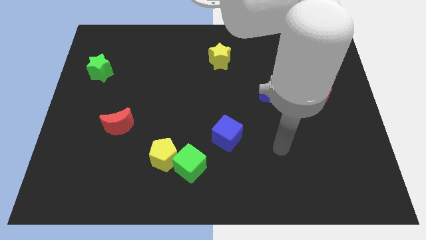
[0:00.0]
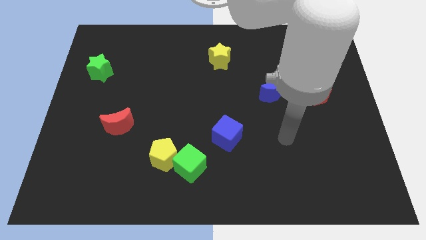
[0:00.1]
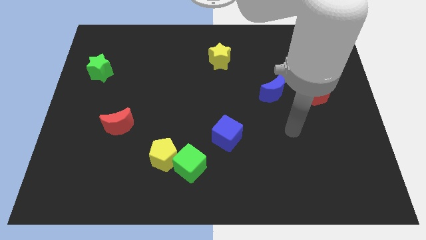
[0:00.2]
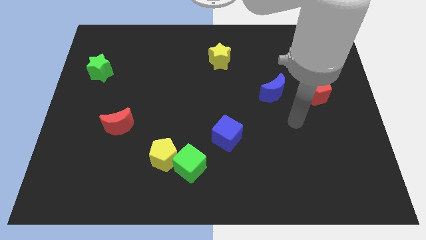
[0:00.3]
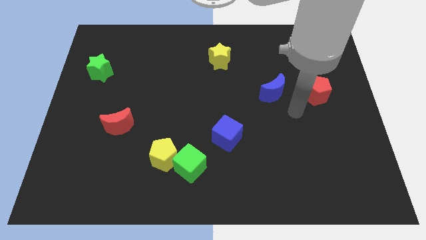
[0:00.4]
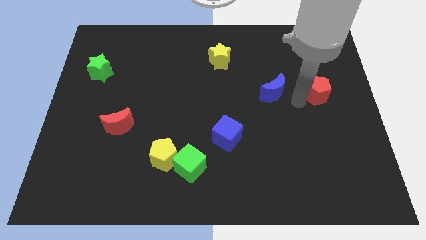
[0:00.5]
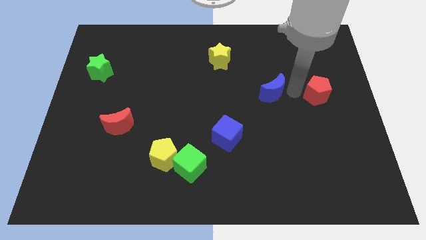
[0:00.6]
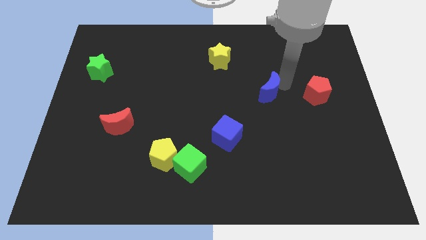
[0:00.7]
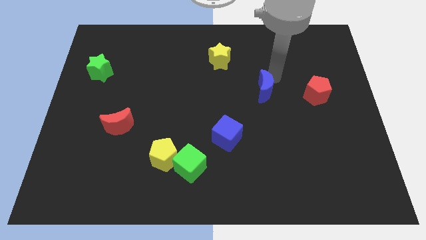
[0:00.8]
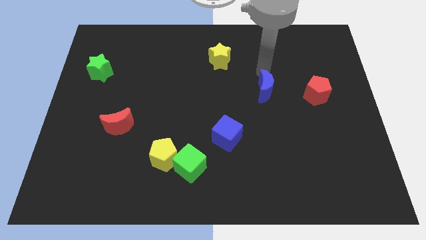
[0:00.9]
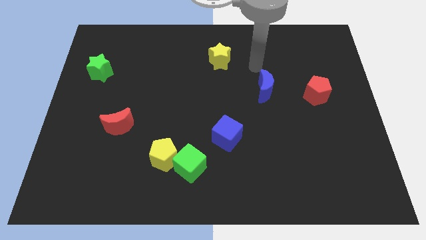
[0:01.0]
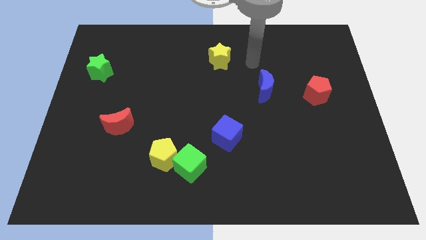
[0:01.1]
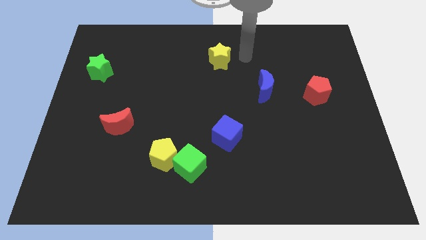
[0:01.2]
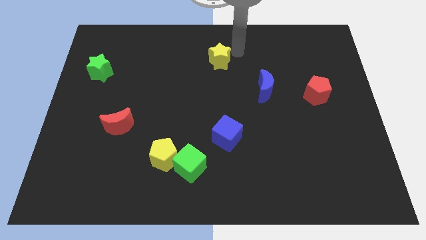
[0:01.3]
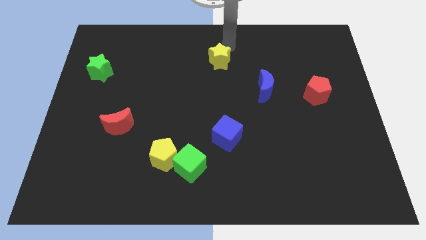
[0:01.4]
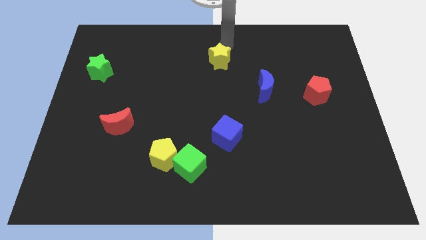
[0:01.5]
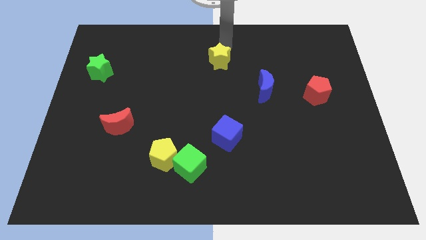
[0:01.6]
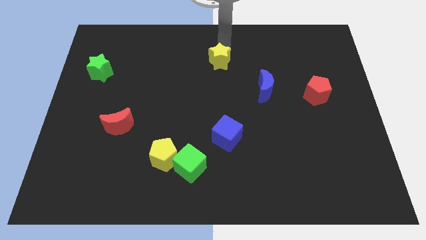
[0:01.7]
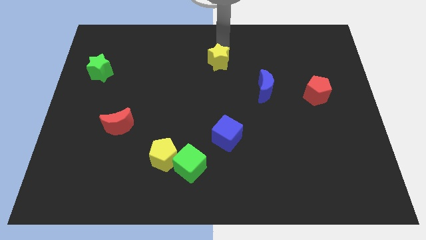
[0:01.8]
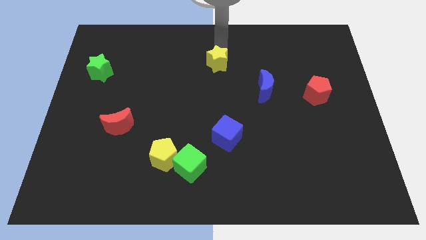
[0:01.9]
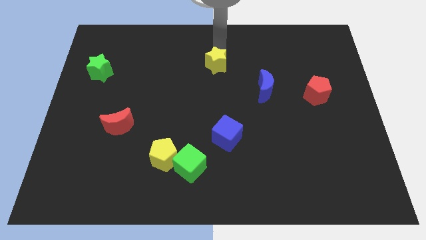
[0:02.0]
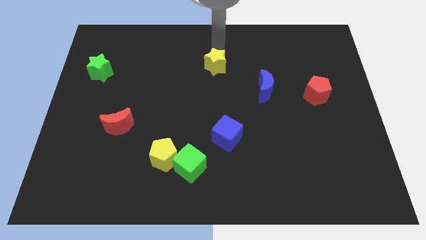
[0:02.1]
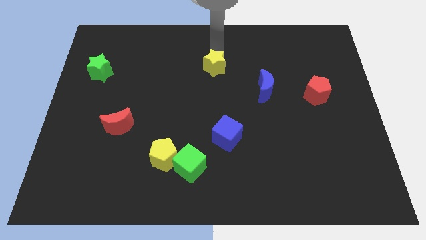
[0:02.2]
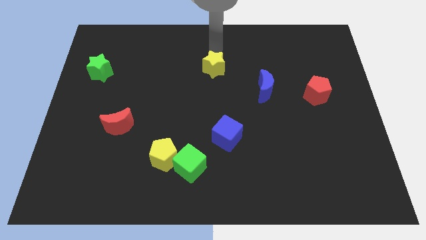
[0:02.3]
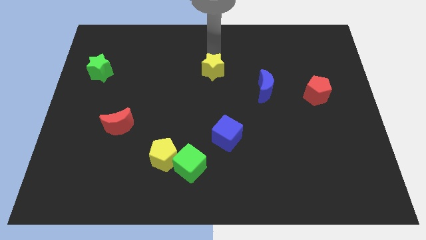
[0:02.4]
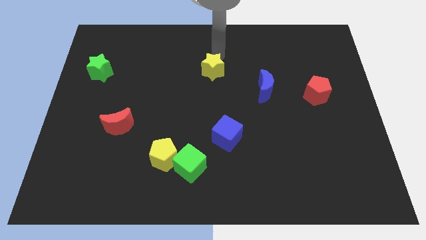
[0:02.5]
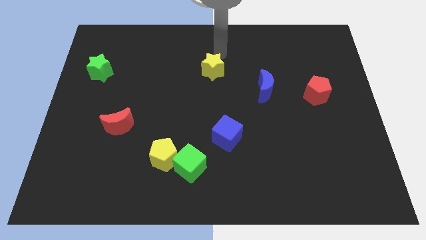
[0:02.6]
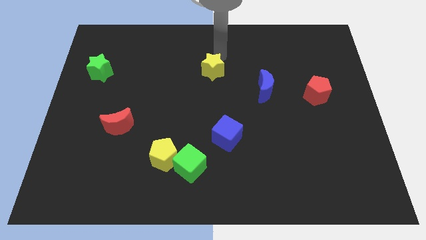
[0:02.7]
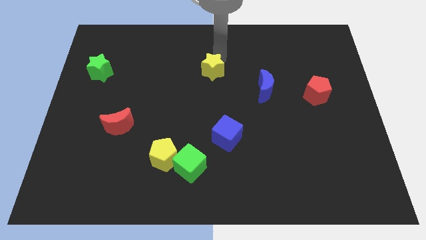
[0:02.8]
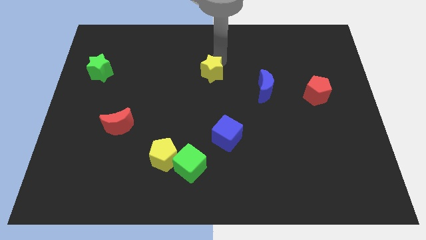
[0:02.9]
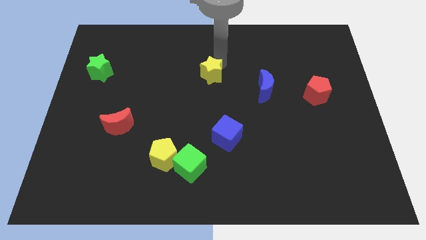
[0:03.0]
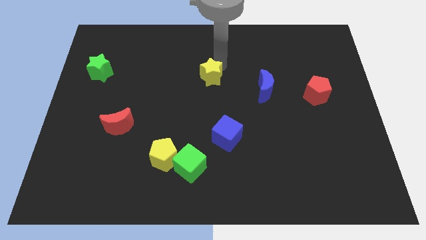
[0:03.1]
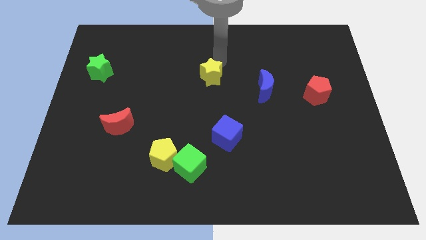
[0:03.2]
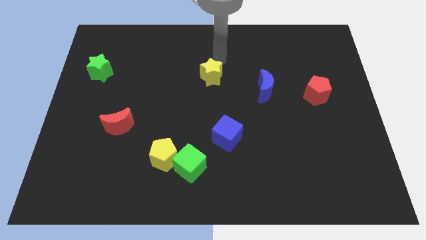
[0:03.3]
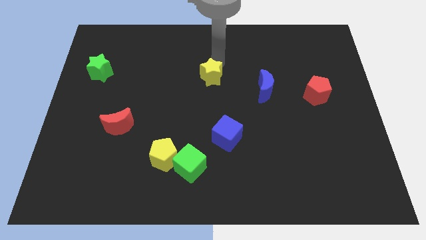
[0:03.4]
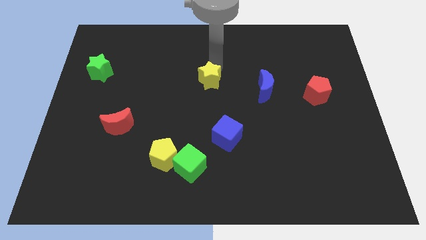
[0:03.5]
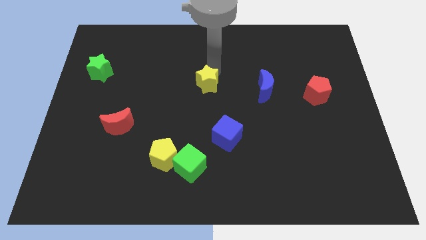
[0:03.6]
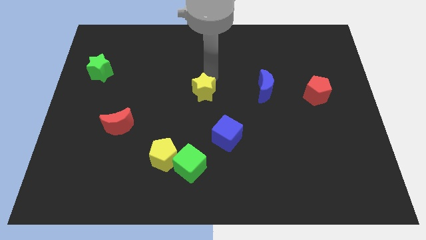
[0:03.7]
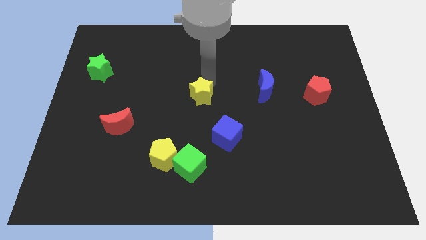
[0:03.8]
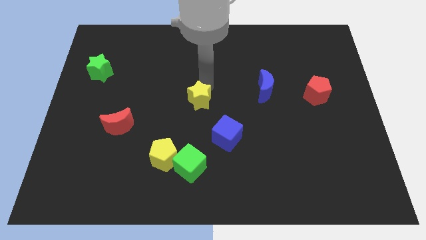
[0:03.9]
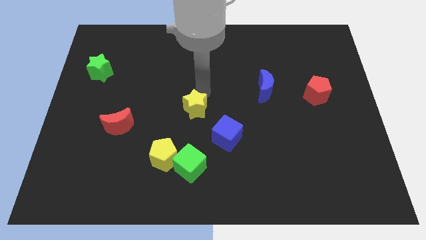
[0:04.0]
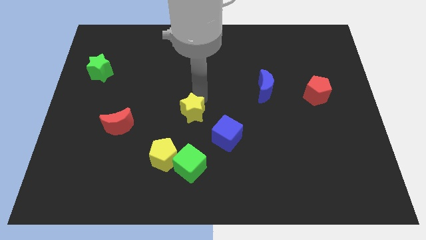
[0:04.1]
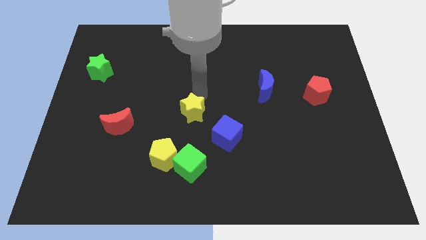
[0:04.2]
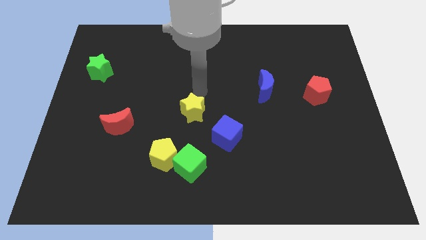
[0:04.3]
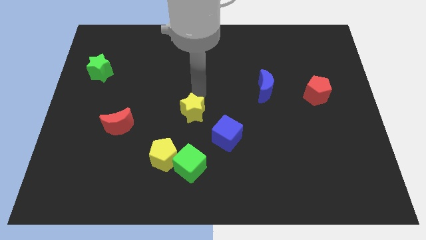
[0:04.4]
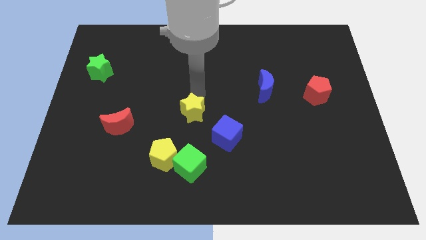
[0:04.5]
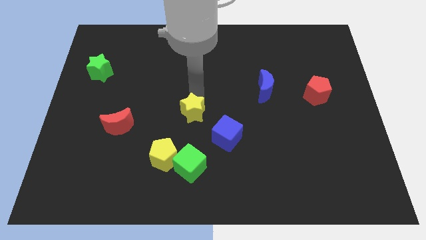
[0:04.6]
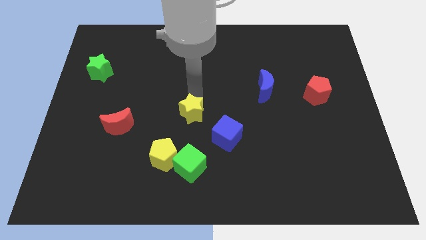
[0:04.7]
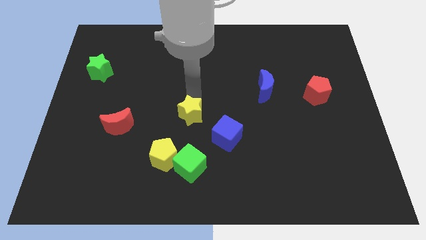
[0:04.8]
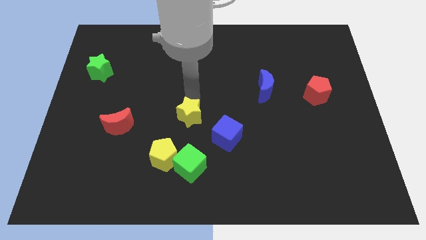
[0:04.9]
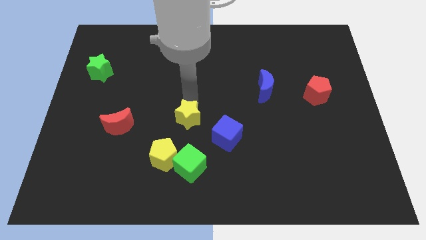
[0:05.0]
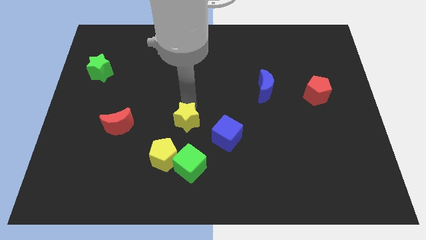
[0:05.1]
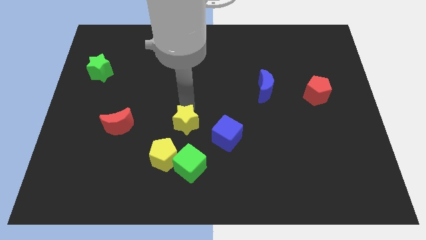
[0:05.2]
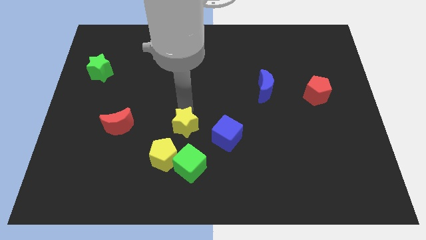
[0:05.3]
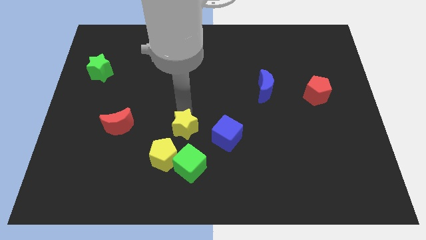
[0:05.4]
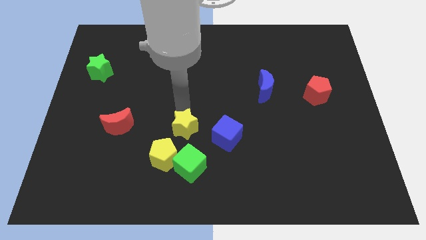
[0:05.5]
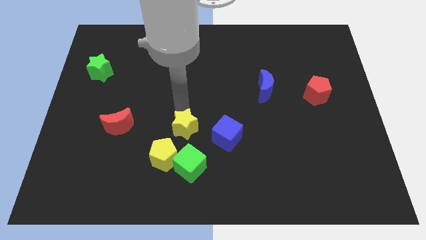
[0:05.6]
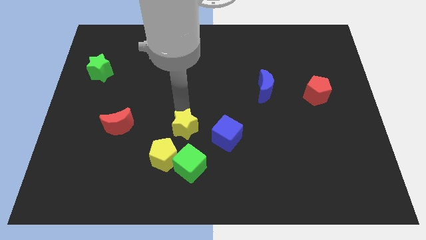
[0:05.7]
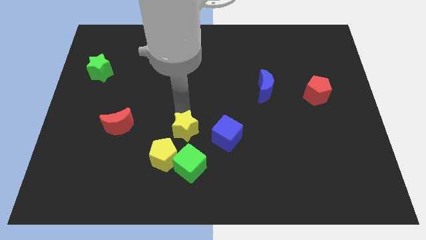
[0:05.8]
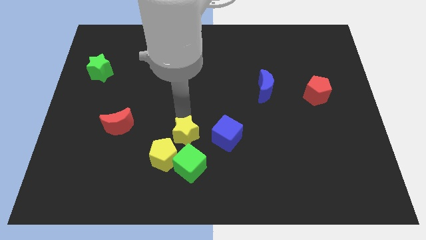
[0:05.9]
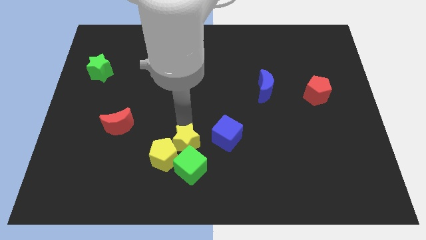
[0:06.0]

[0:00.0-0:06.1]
move the yellow star towards the green cube
